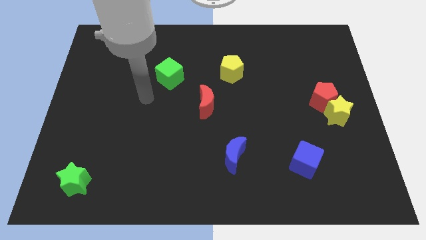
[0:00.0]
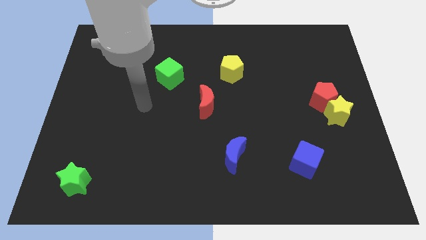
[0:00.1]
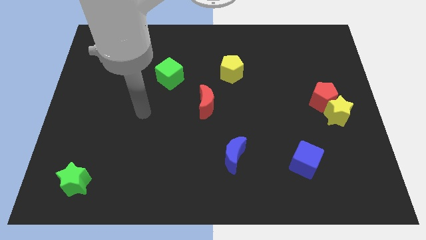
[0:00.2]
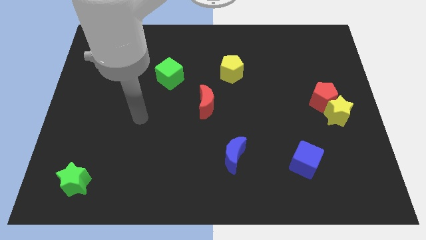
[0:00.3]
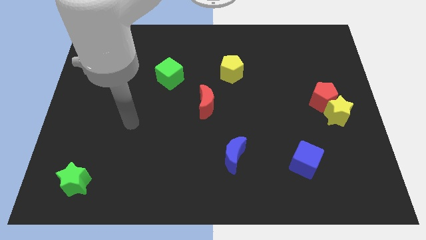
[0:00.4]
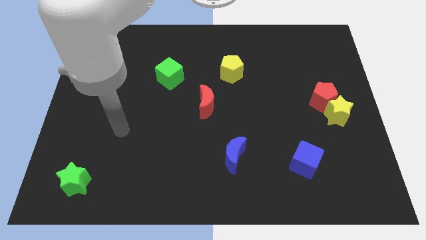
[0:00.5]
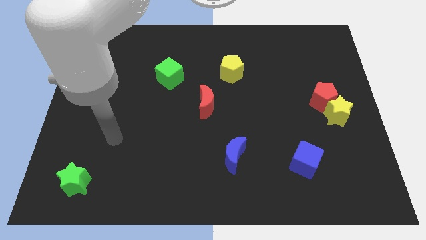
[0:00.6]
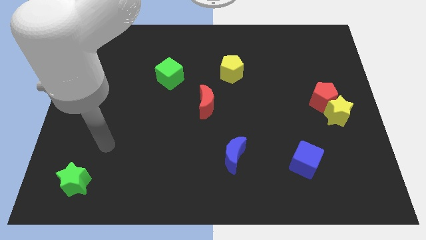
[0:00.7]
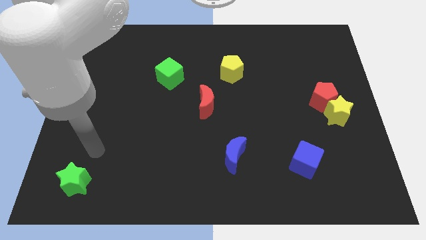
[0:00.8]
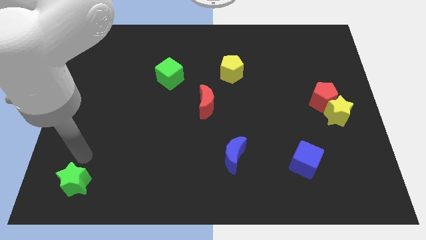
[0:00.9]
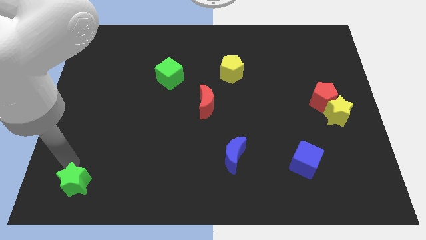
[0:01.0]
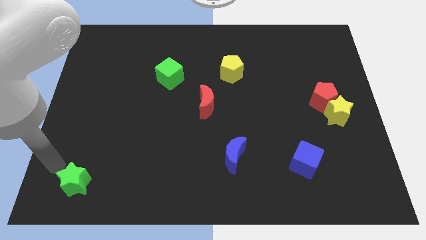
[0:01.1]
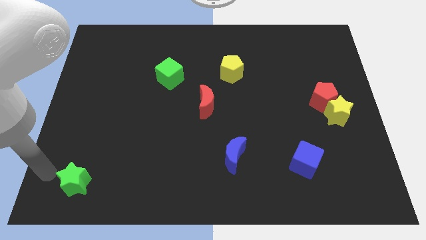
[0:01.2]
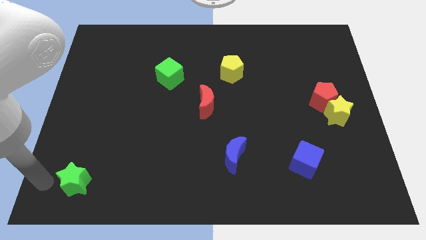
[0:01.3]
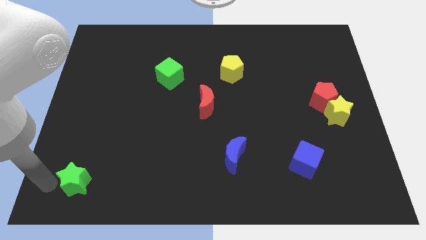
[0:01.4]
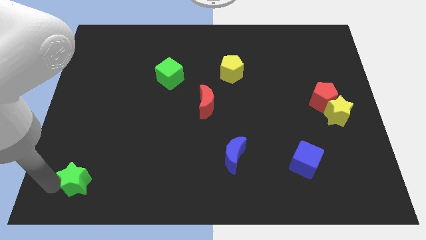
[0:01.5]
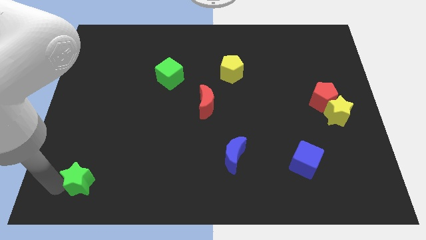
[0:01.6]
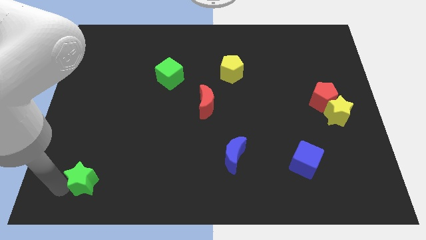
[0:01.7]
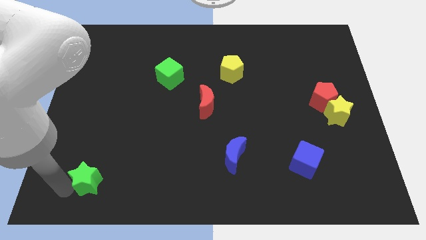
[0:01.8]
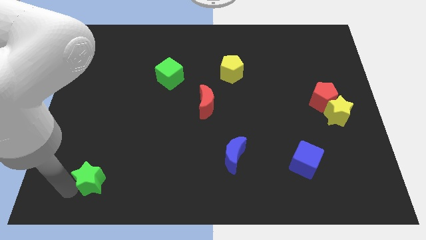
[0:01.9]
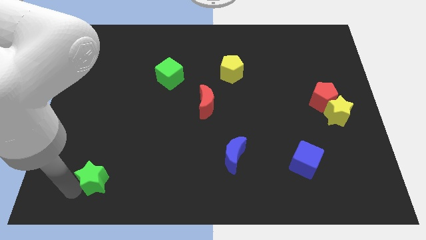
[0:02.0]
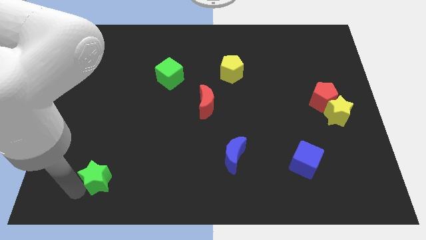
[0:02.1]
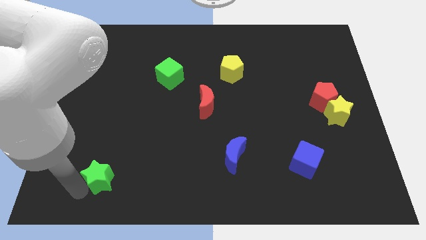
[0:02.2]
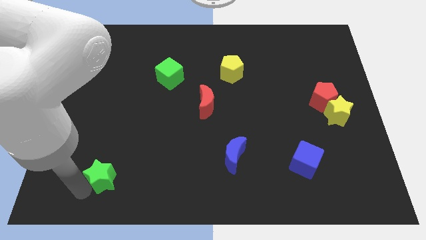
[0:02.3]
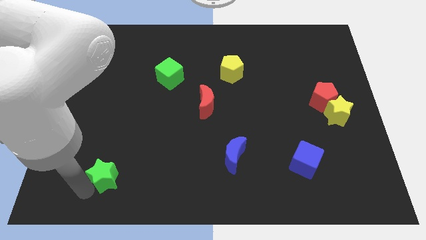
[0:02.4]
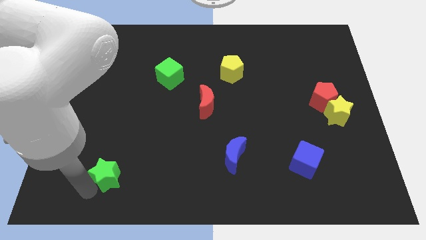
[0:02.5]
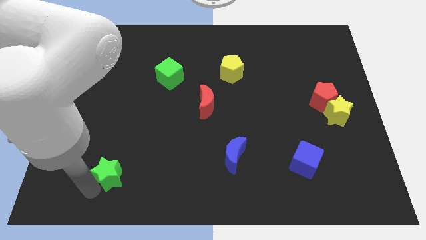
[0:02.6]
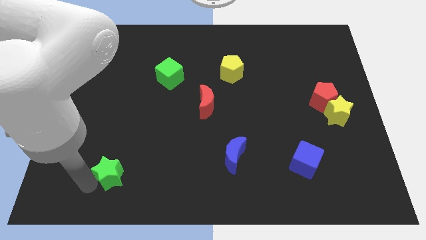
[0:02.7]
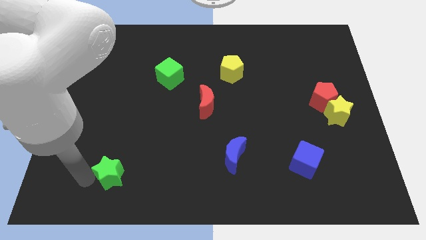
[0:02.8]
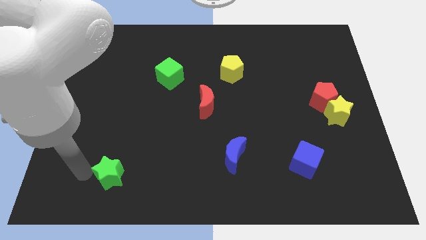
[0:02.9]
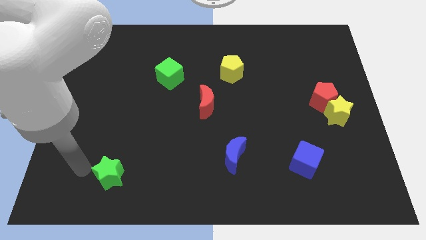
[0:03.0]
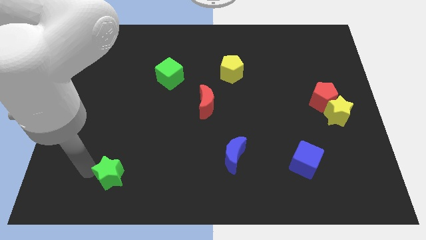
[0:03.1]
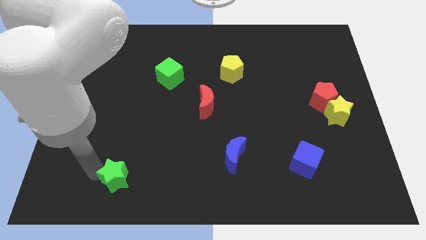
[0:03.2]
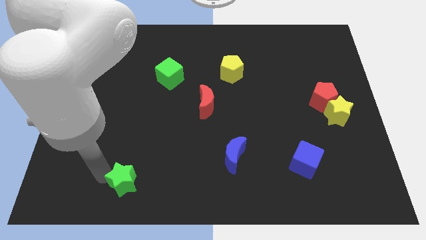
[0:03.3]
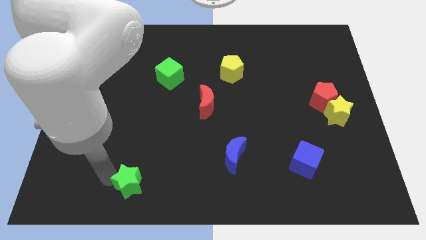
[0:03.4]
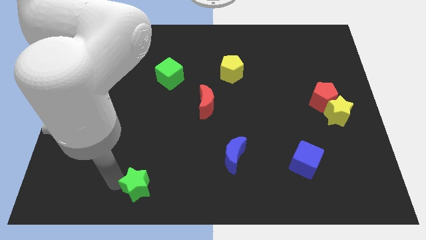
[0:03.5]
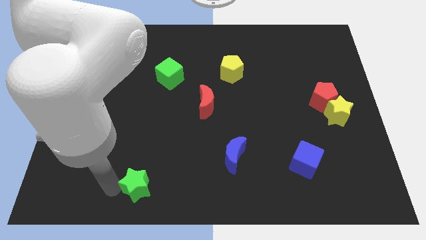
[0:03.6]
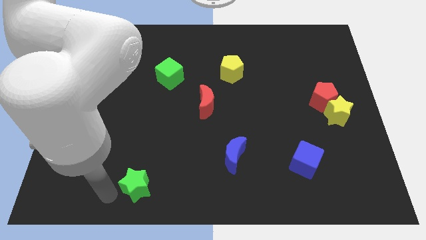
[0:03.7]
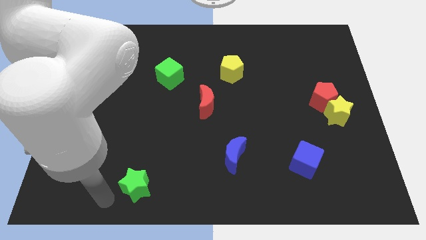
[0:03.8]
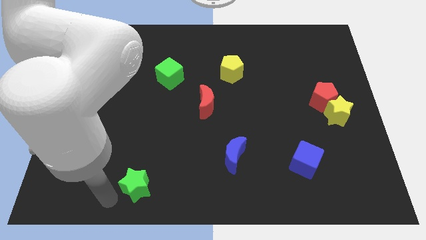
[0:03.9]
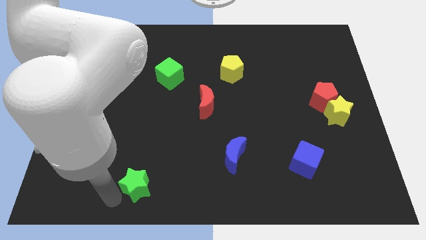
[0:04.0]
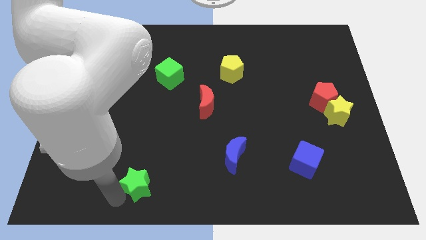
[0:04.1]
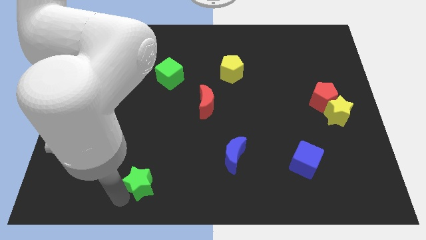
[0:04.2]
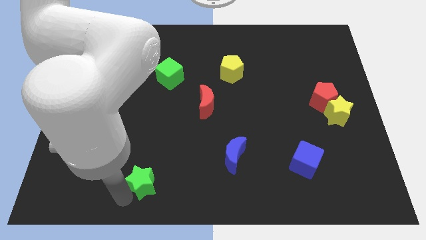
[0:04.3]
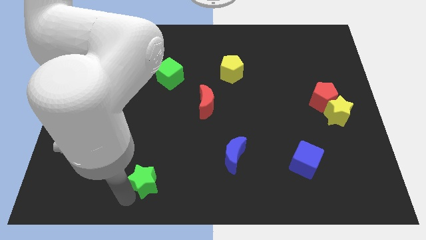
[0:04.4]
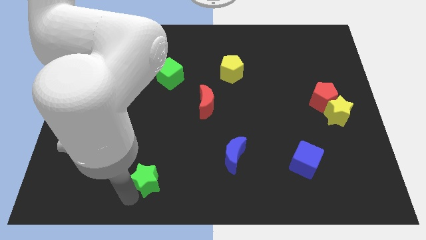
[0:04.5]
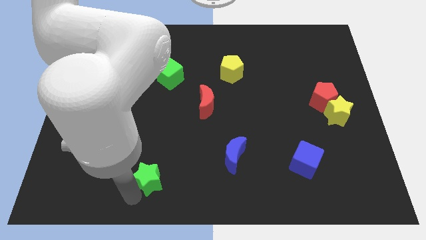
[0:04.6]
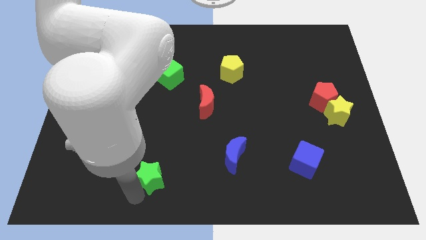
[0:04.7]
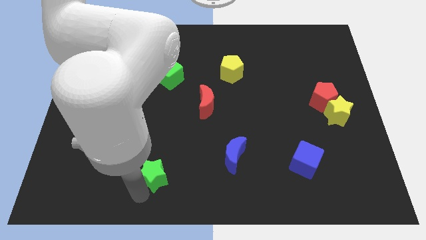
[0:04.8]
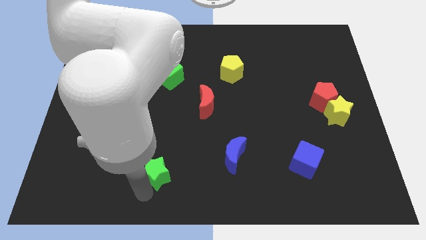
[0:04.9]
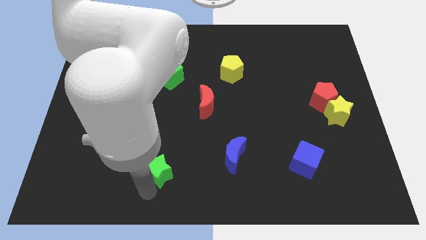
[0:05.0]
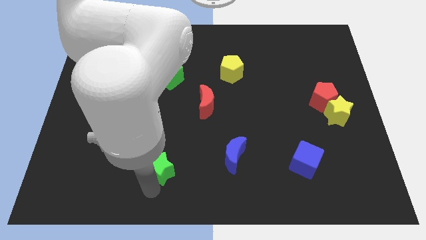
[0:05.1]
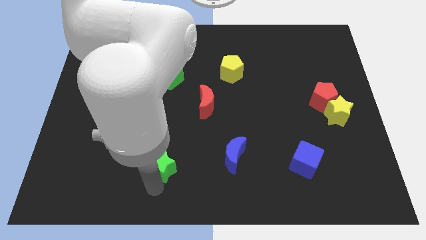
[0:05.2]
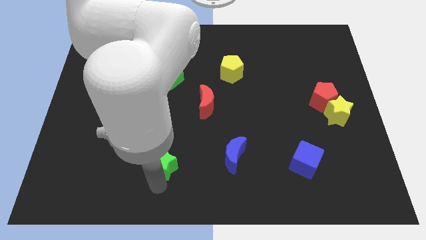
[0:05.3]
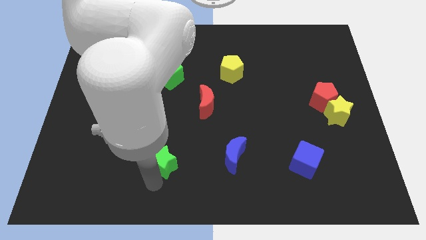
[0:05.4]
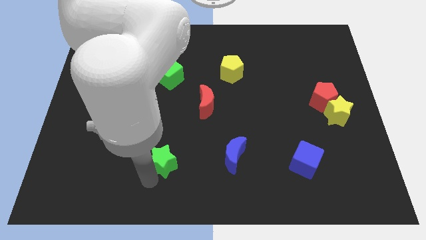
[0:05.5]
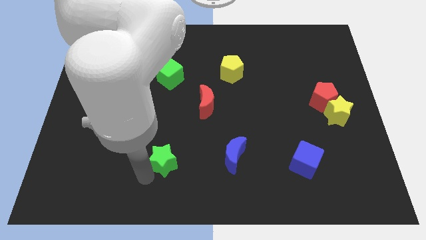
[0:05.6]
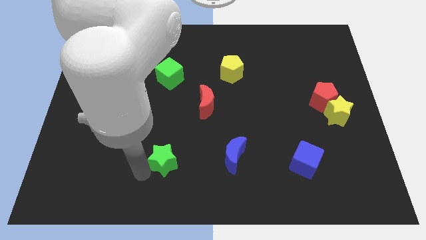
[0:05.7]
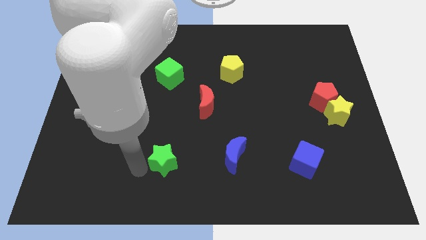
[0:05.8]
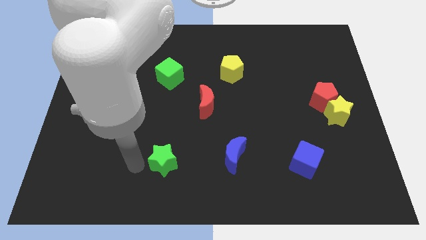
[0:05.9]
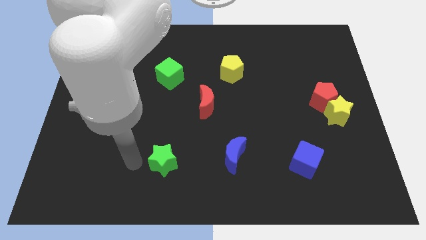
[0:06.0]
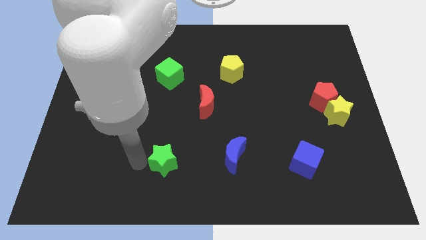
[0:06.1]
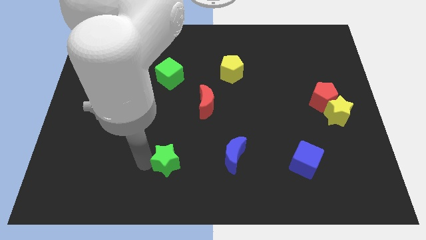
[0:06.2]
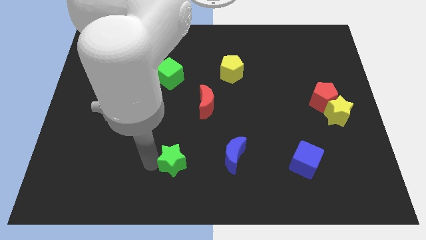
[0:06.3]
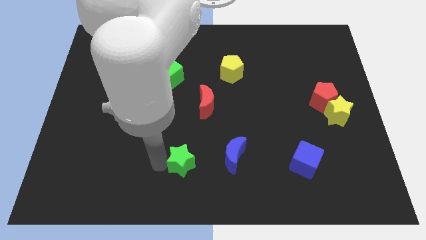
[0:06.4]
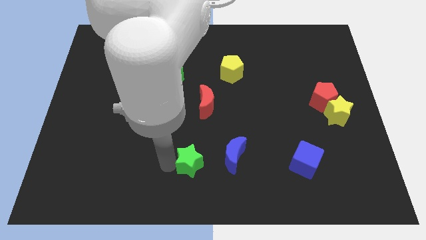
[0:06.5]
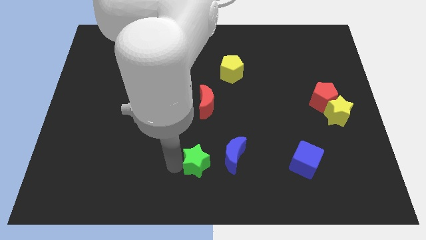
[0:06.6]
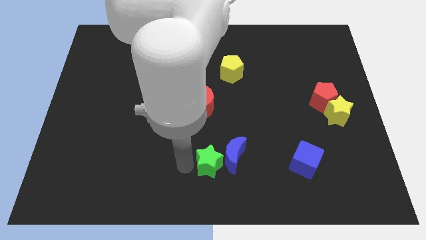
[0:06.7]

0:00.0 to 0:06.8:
move the green star next to the blue moon
